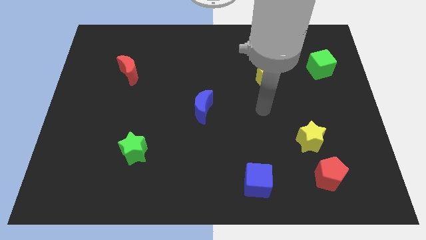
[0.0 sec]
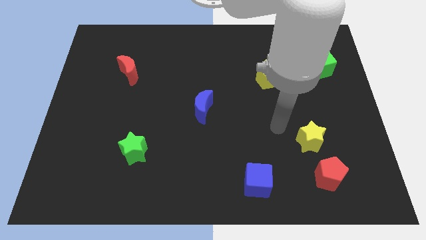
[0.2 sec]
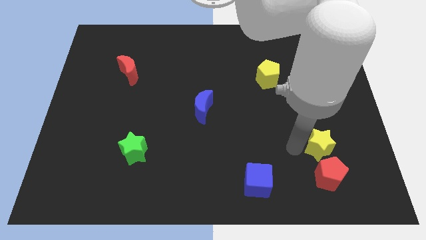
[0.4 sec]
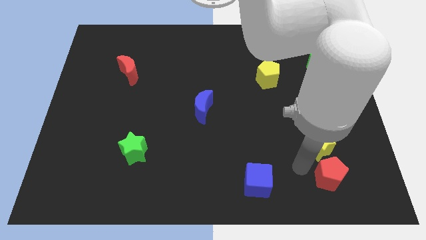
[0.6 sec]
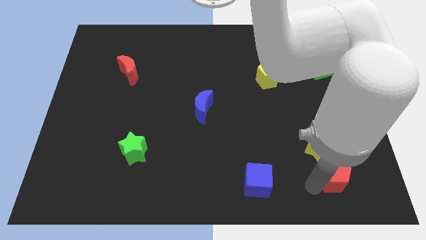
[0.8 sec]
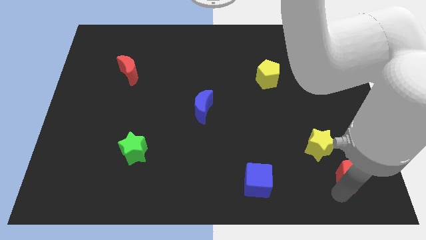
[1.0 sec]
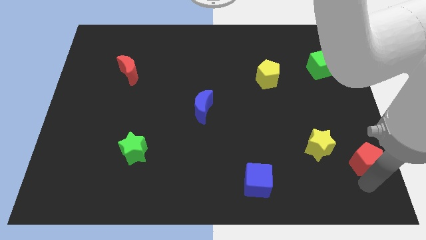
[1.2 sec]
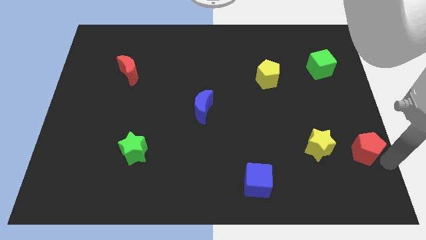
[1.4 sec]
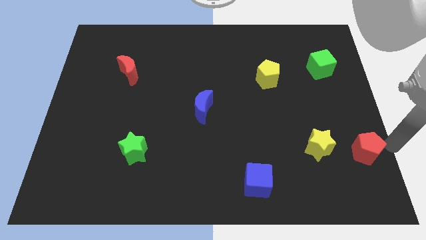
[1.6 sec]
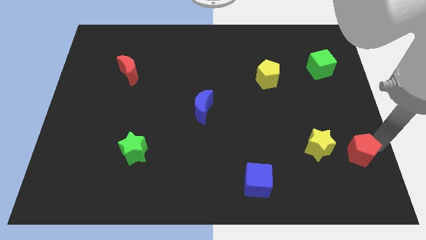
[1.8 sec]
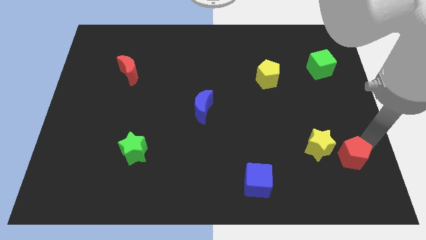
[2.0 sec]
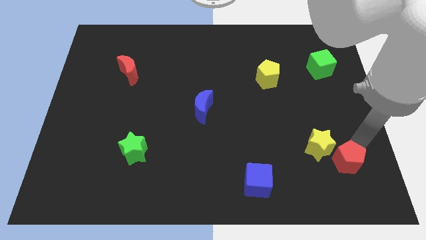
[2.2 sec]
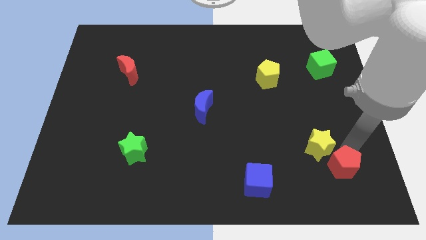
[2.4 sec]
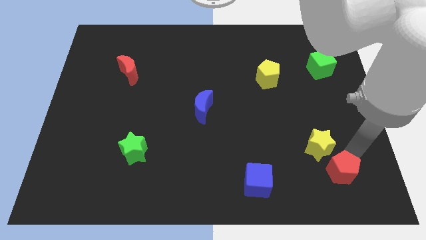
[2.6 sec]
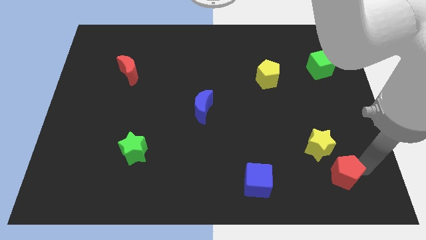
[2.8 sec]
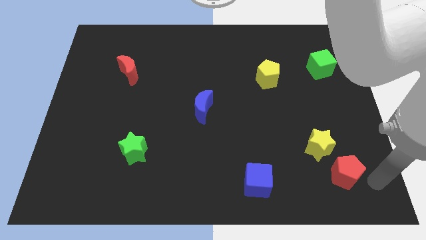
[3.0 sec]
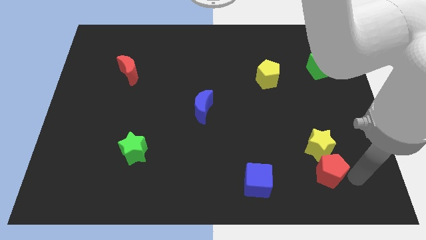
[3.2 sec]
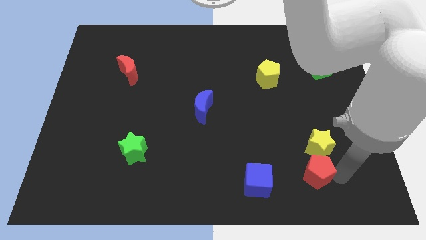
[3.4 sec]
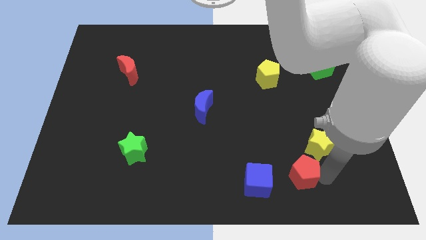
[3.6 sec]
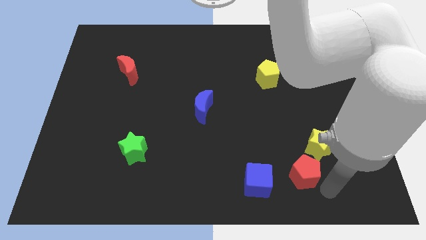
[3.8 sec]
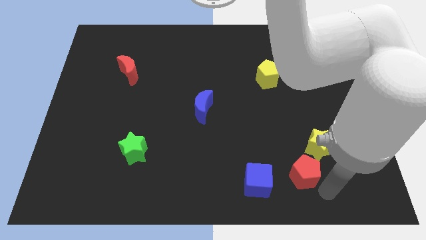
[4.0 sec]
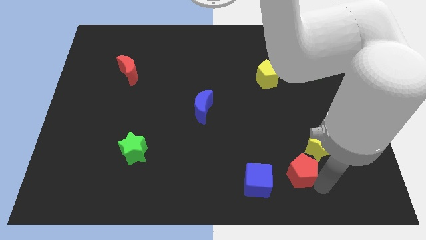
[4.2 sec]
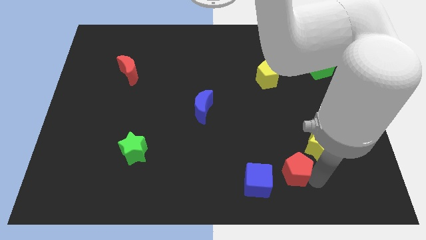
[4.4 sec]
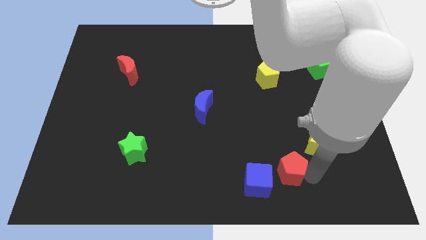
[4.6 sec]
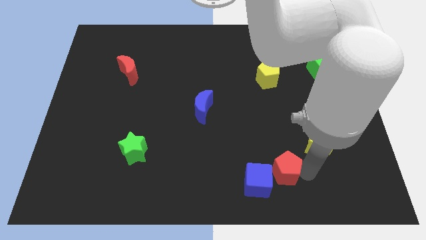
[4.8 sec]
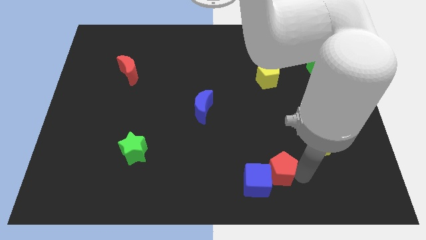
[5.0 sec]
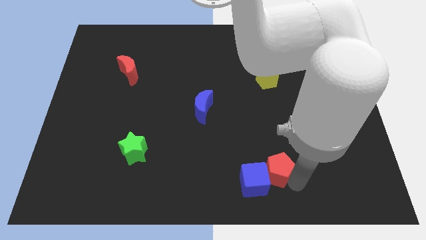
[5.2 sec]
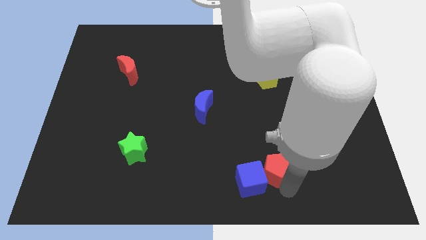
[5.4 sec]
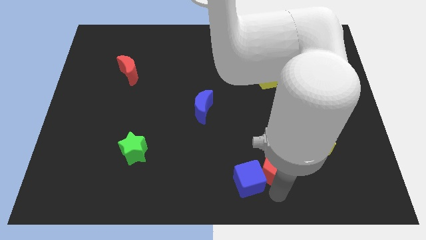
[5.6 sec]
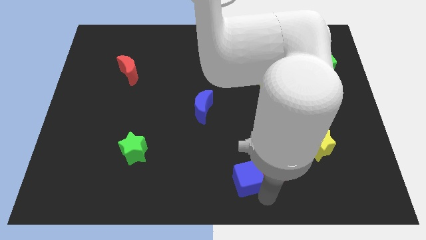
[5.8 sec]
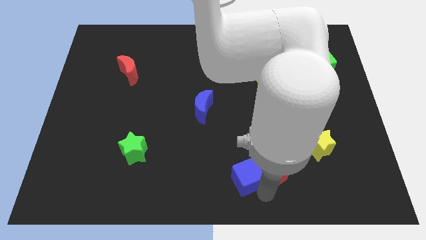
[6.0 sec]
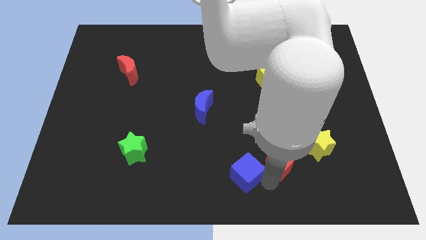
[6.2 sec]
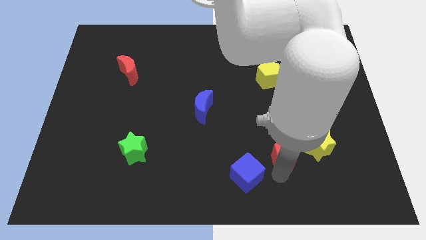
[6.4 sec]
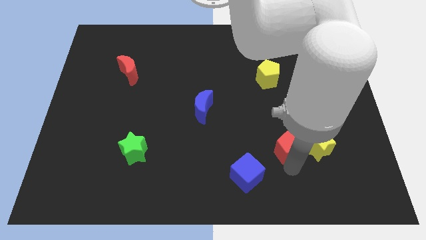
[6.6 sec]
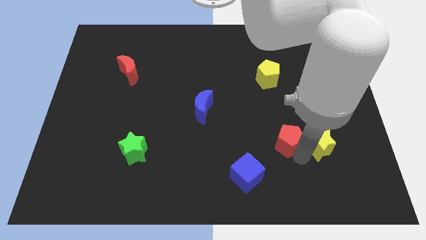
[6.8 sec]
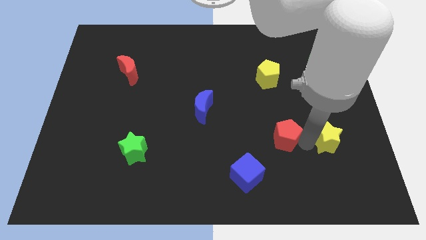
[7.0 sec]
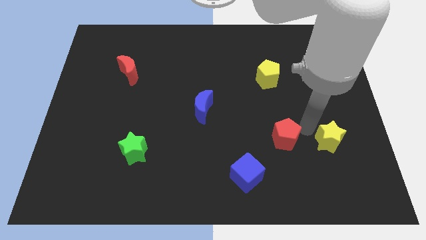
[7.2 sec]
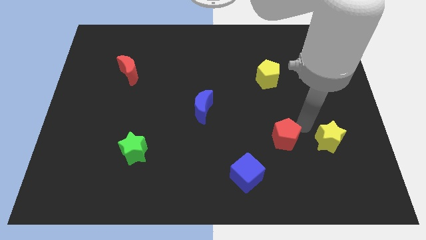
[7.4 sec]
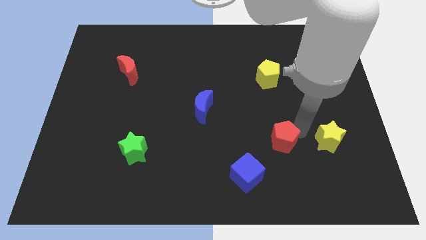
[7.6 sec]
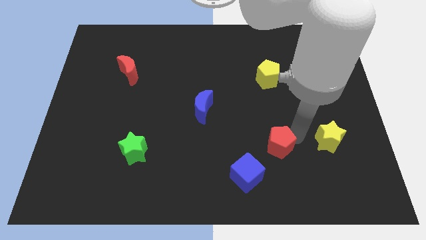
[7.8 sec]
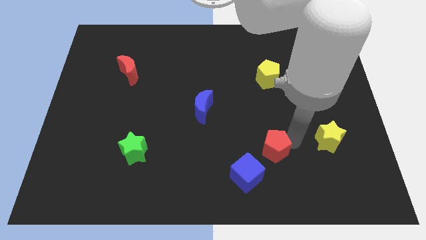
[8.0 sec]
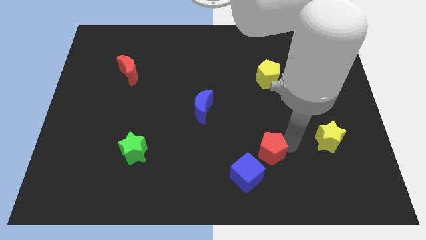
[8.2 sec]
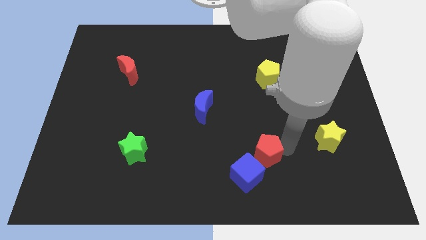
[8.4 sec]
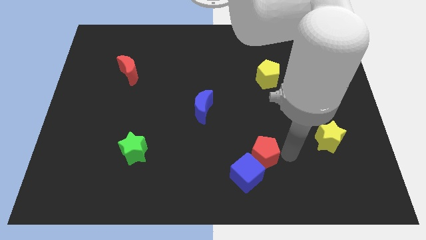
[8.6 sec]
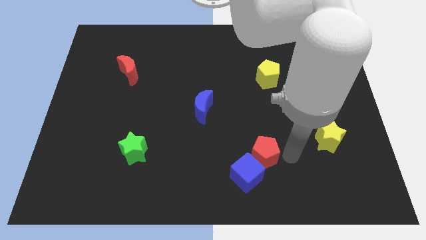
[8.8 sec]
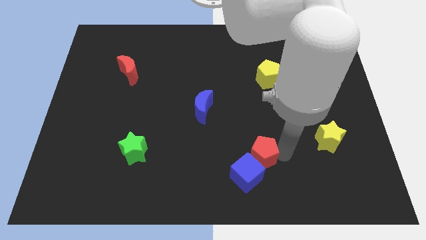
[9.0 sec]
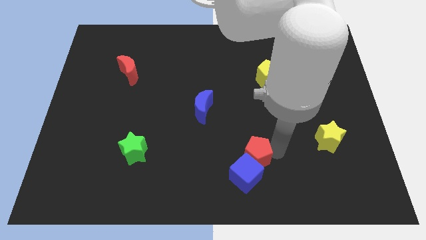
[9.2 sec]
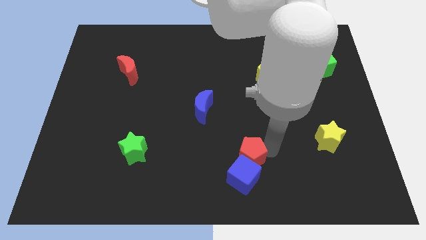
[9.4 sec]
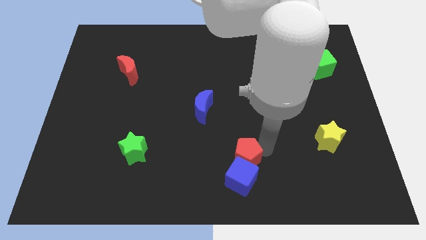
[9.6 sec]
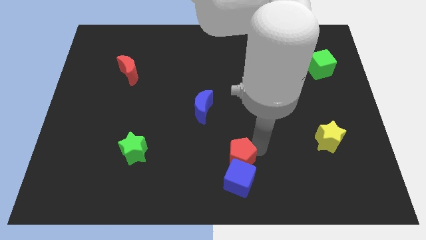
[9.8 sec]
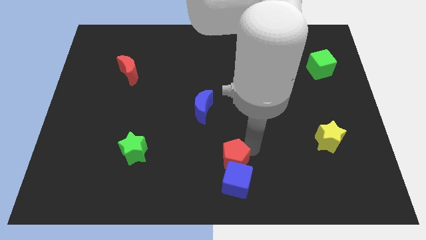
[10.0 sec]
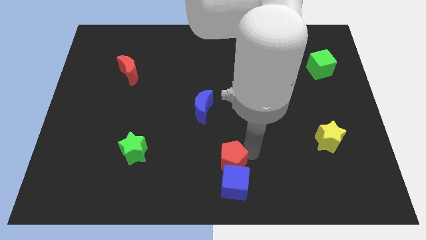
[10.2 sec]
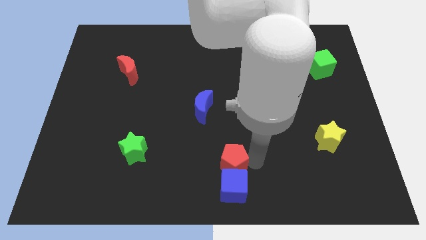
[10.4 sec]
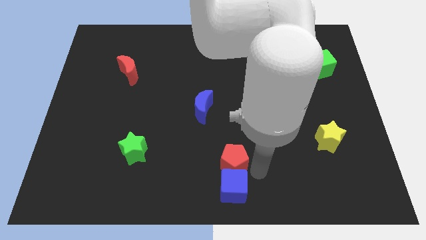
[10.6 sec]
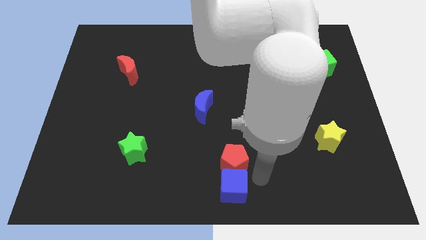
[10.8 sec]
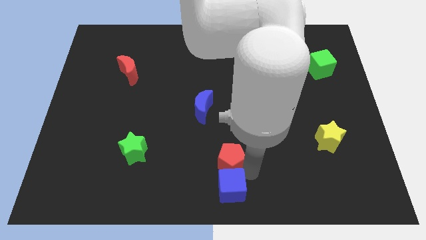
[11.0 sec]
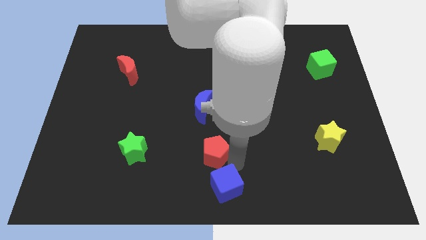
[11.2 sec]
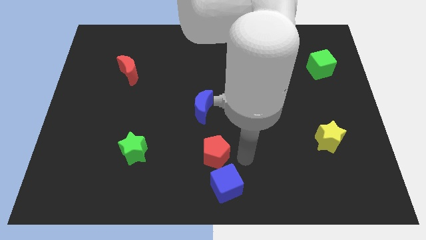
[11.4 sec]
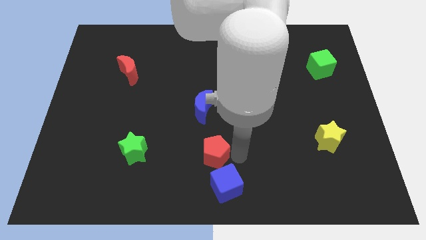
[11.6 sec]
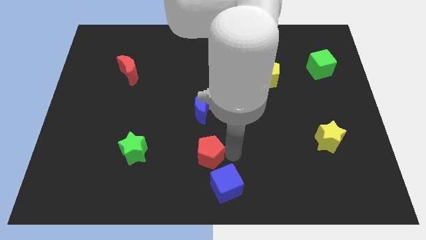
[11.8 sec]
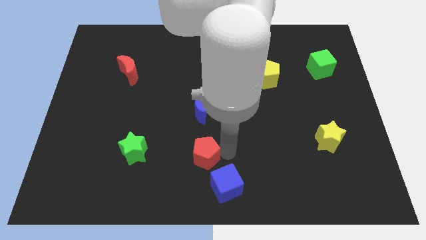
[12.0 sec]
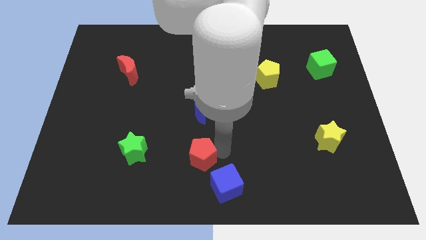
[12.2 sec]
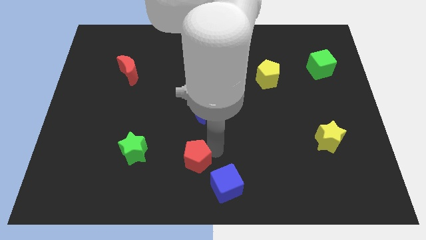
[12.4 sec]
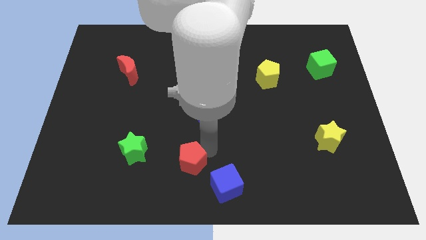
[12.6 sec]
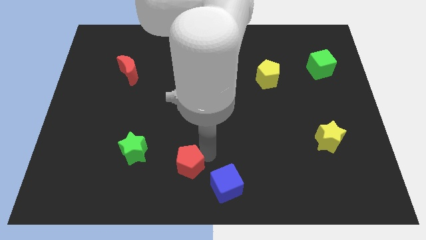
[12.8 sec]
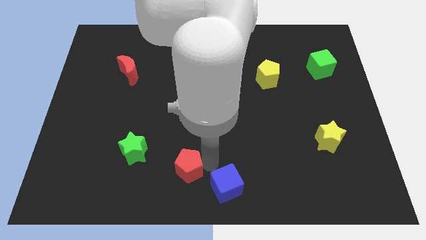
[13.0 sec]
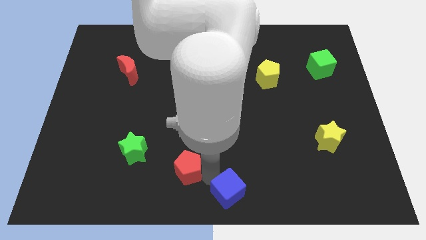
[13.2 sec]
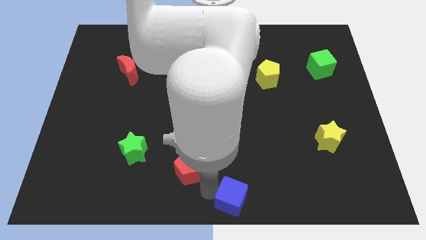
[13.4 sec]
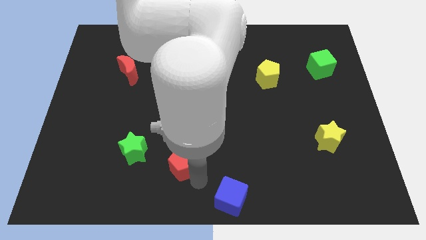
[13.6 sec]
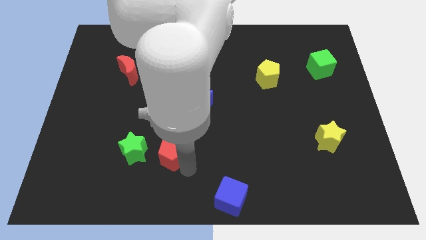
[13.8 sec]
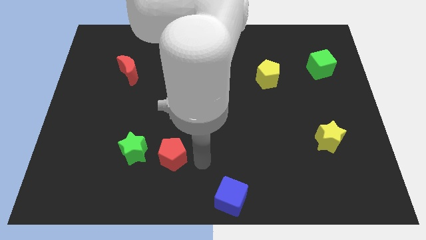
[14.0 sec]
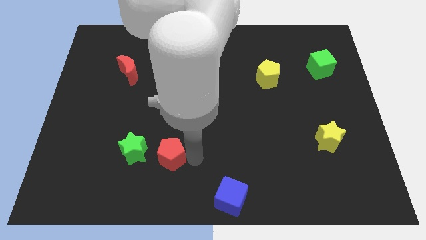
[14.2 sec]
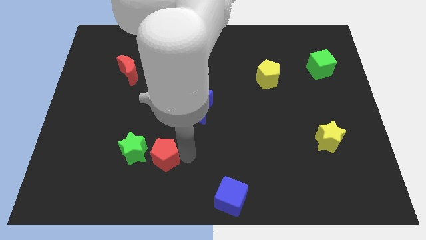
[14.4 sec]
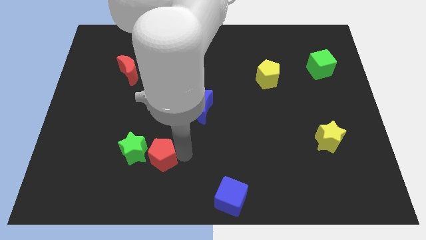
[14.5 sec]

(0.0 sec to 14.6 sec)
put the red pentagon towards the green star

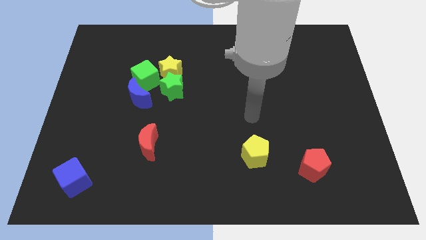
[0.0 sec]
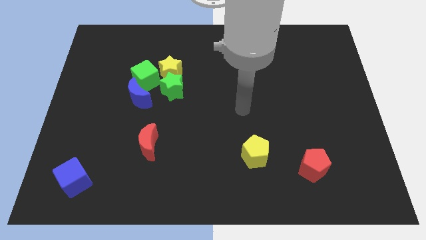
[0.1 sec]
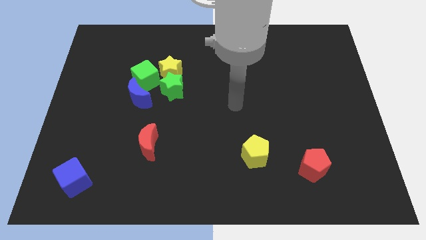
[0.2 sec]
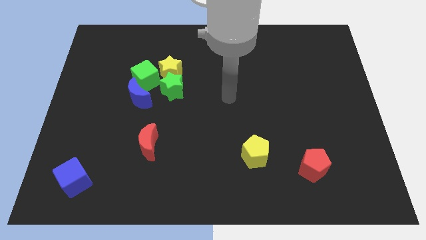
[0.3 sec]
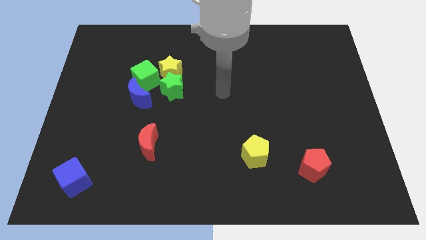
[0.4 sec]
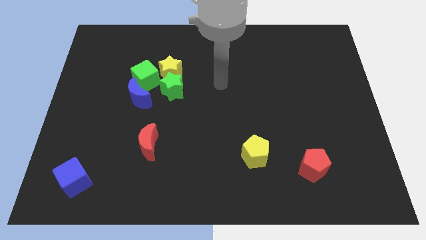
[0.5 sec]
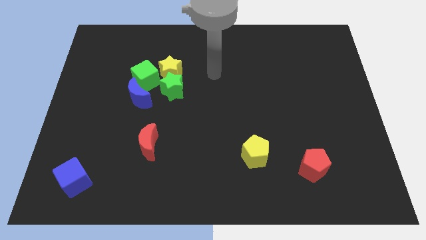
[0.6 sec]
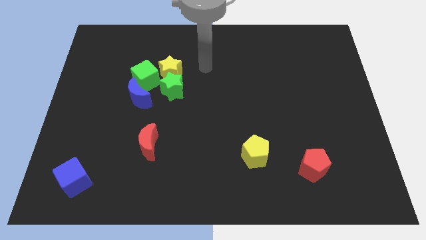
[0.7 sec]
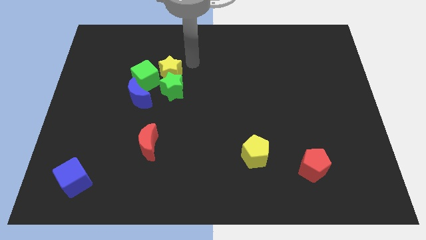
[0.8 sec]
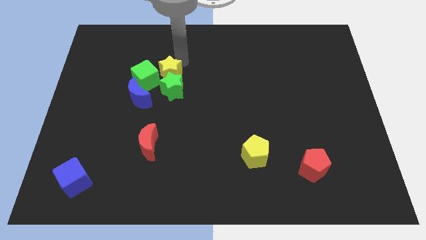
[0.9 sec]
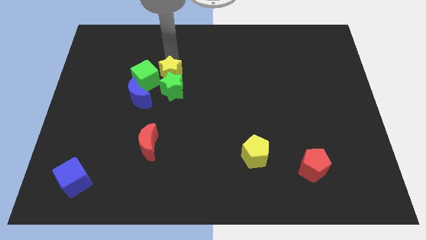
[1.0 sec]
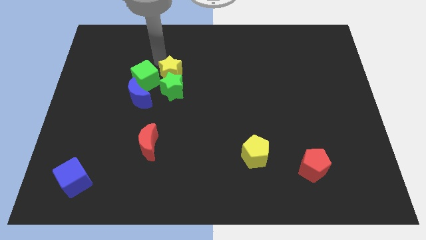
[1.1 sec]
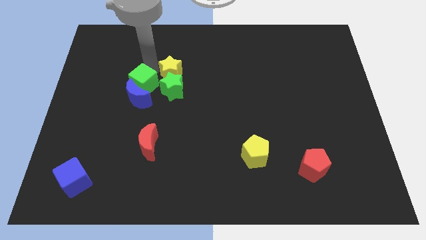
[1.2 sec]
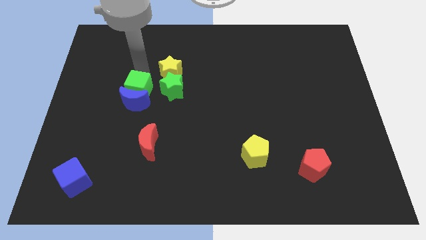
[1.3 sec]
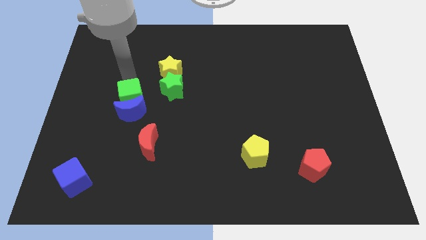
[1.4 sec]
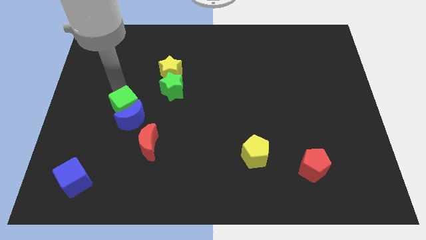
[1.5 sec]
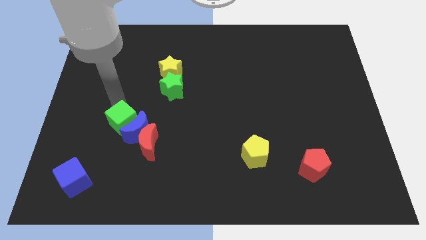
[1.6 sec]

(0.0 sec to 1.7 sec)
move the blue moon to the red moon
